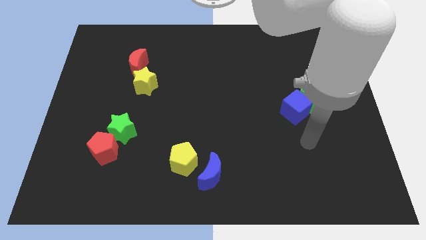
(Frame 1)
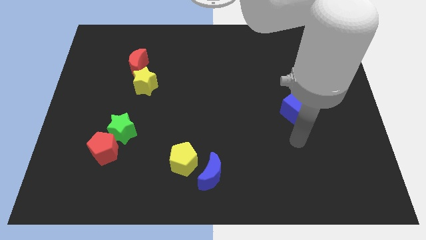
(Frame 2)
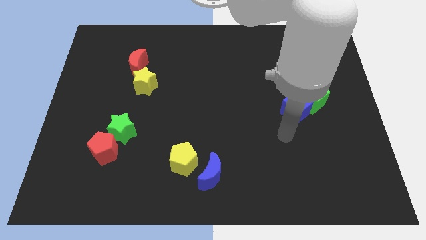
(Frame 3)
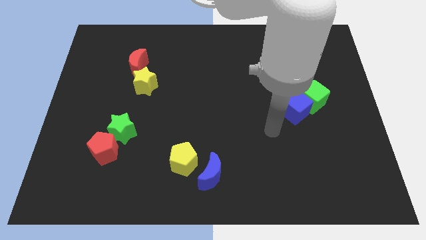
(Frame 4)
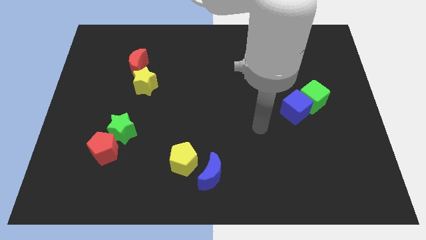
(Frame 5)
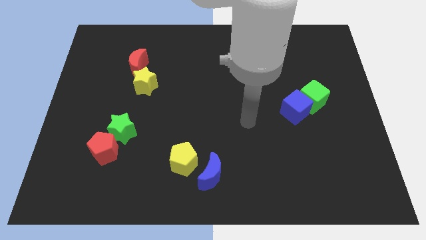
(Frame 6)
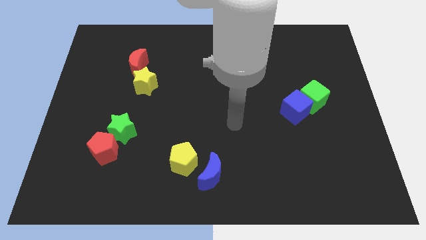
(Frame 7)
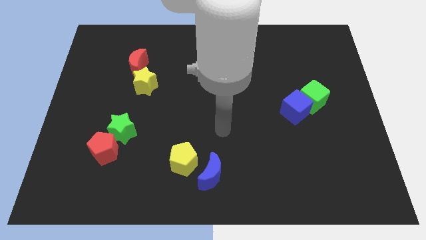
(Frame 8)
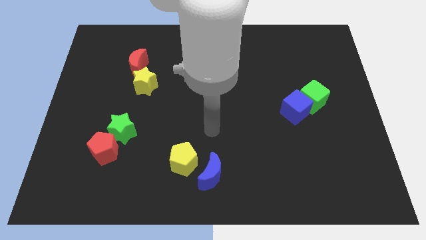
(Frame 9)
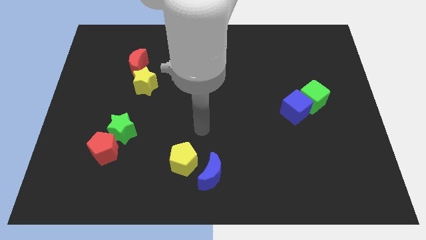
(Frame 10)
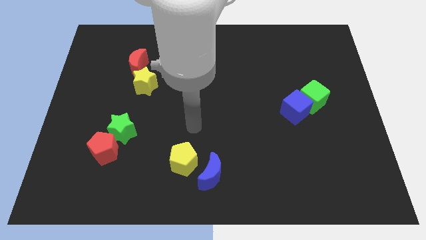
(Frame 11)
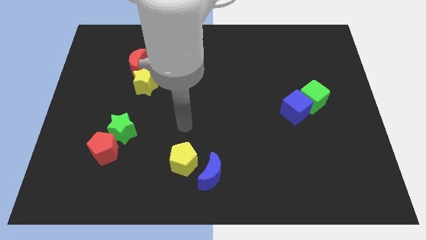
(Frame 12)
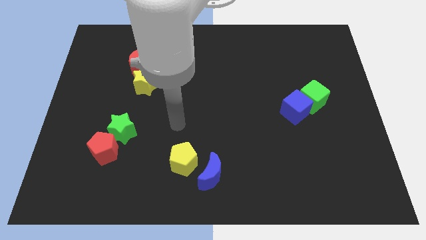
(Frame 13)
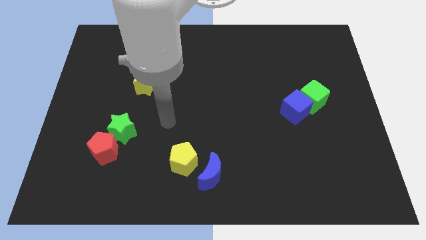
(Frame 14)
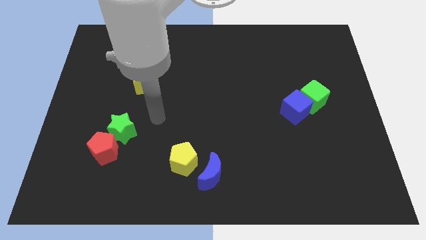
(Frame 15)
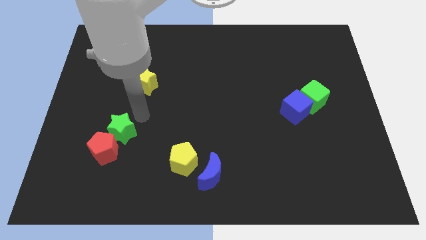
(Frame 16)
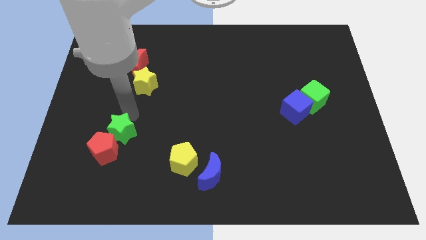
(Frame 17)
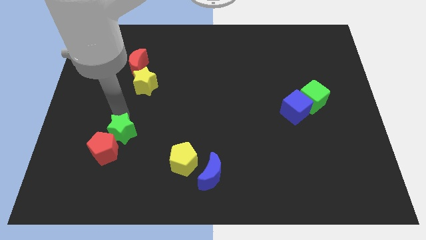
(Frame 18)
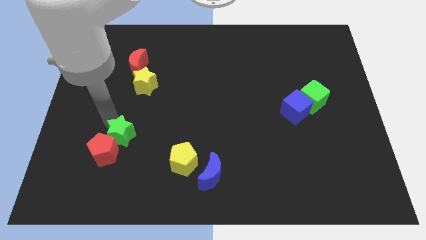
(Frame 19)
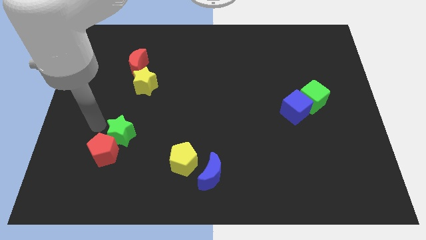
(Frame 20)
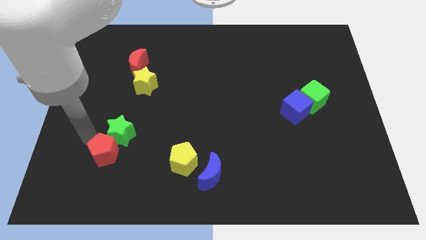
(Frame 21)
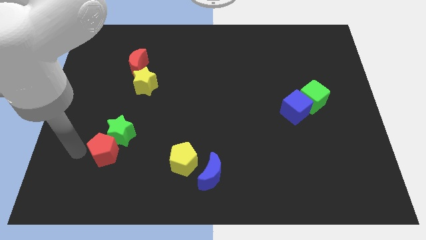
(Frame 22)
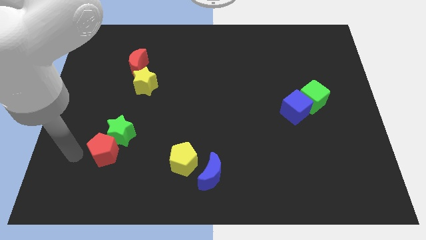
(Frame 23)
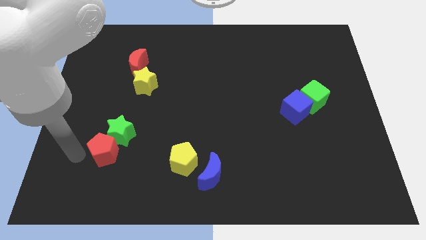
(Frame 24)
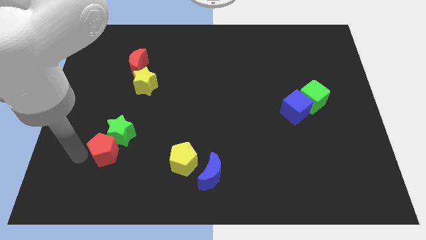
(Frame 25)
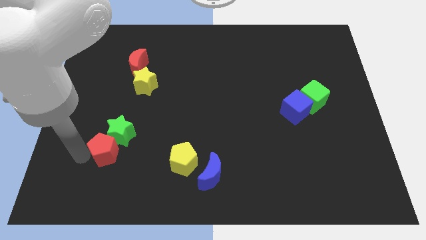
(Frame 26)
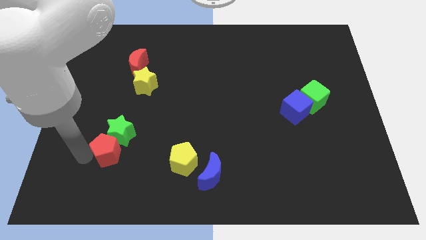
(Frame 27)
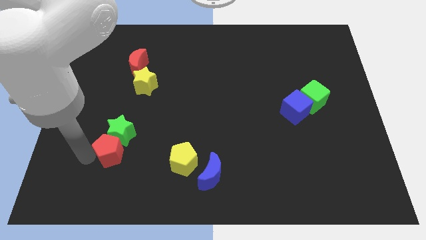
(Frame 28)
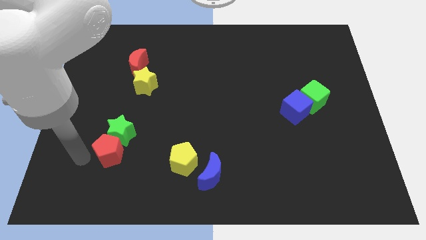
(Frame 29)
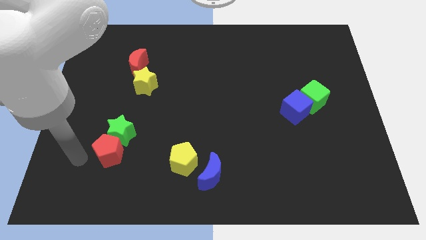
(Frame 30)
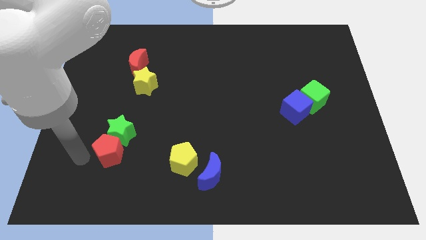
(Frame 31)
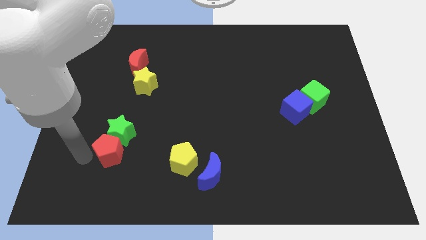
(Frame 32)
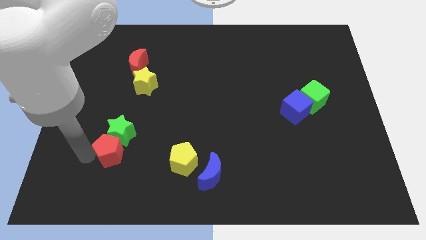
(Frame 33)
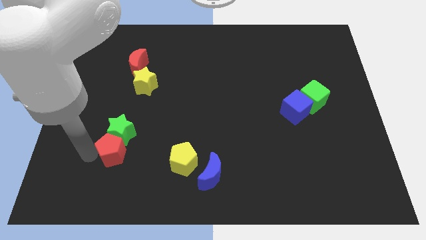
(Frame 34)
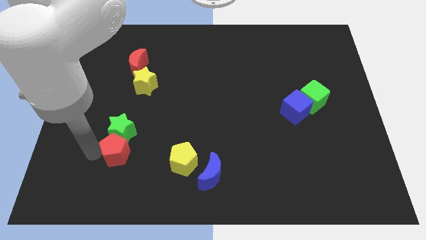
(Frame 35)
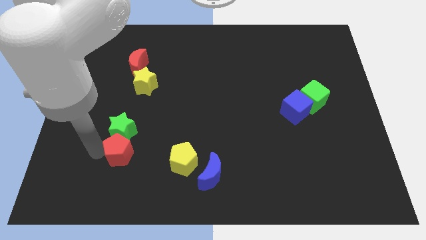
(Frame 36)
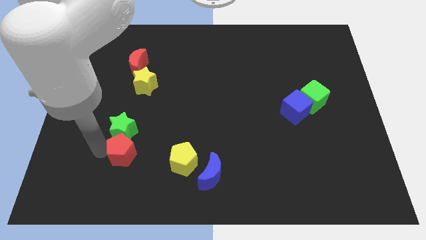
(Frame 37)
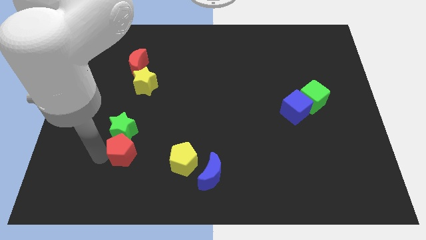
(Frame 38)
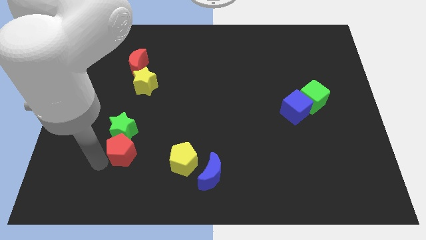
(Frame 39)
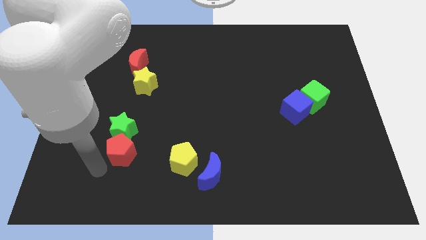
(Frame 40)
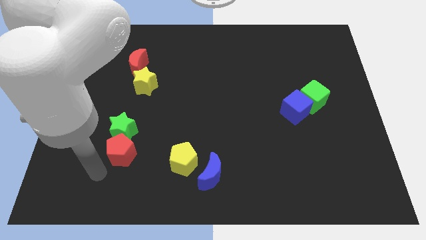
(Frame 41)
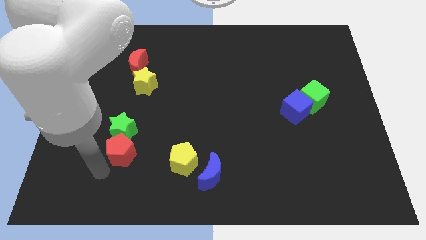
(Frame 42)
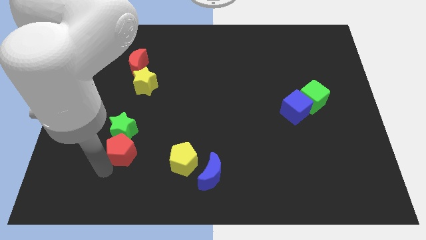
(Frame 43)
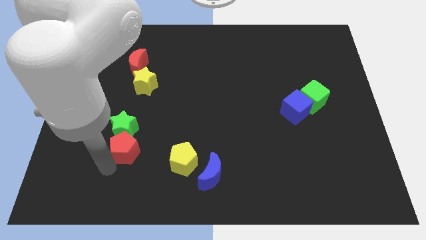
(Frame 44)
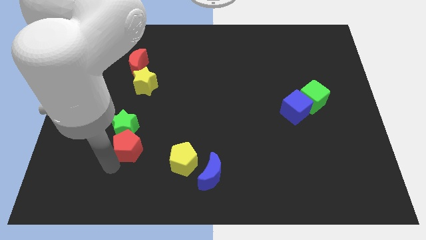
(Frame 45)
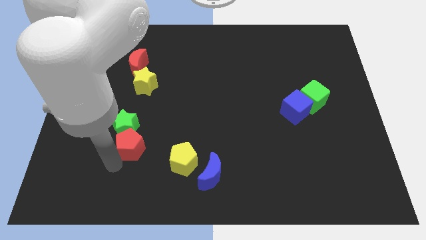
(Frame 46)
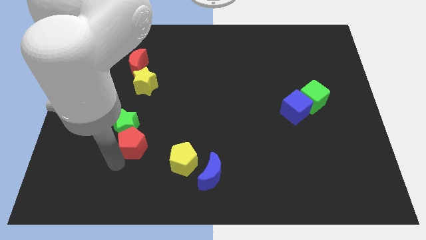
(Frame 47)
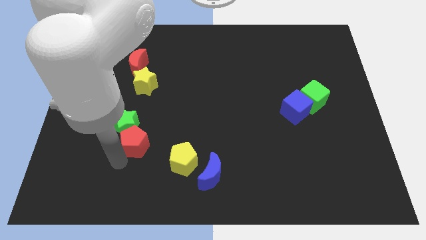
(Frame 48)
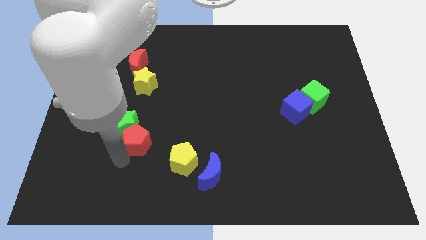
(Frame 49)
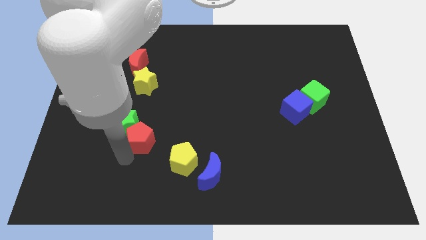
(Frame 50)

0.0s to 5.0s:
slightly slide the red pentagon up and right diagonally

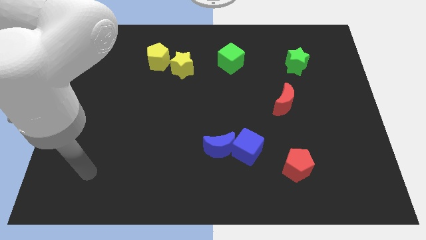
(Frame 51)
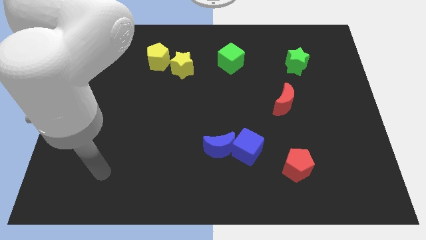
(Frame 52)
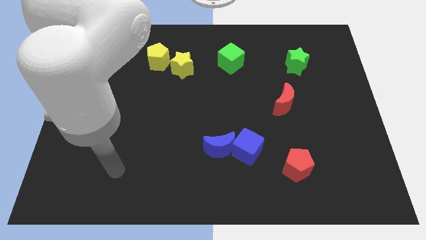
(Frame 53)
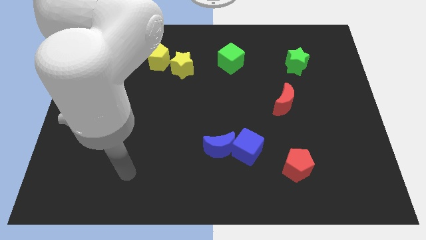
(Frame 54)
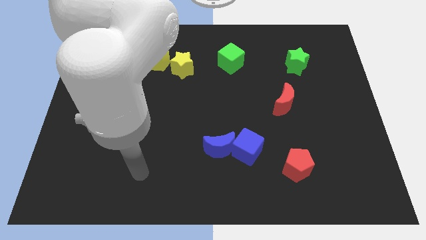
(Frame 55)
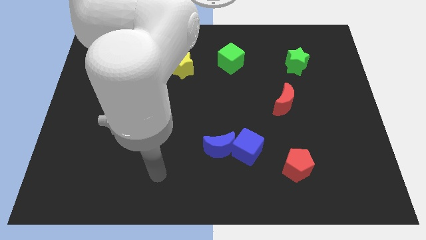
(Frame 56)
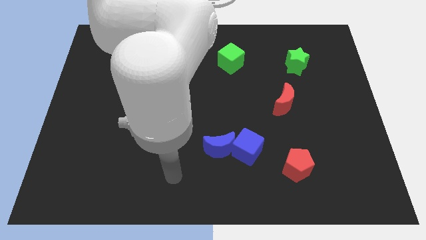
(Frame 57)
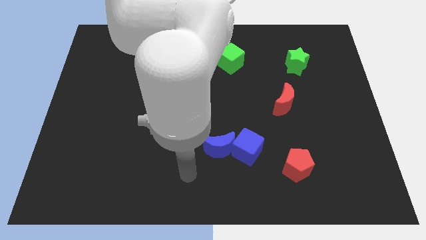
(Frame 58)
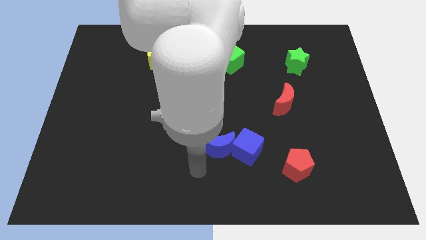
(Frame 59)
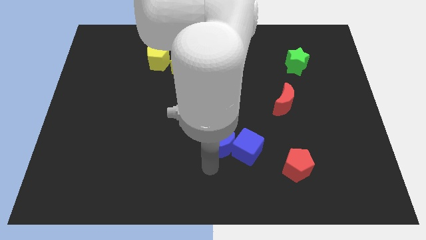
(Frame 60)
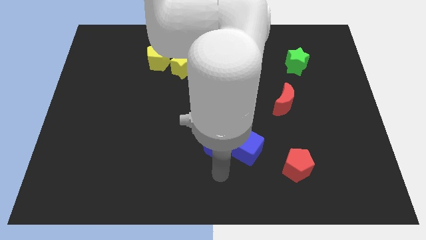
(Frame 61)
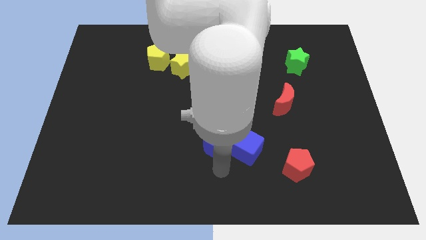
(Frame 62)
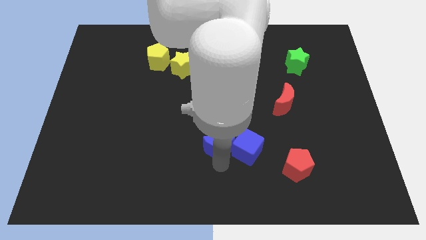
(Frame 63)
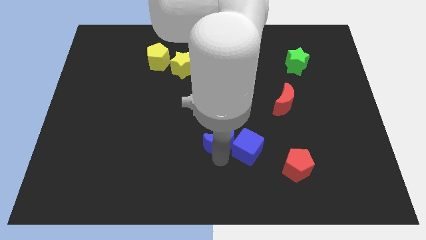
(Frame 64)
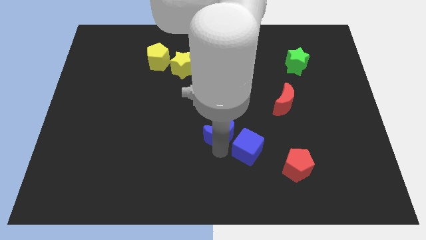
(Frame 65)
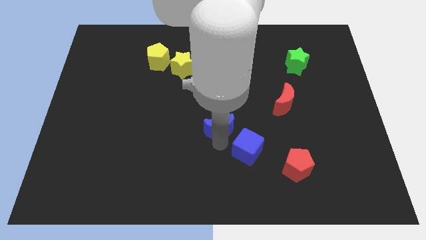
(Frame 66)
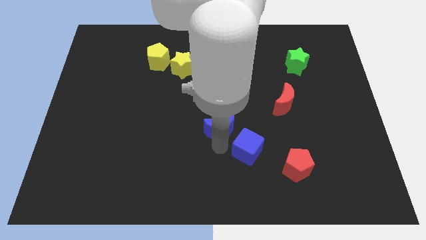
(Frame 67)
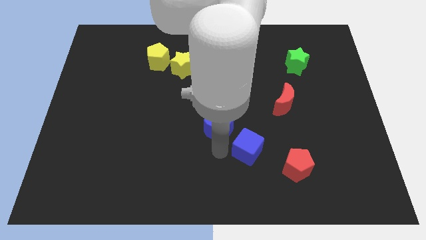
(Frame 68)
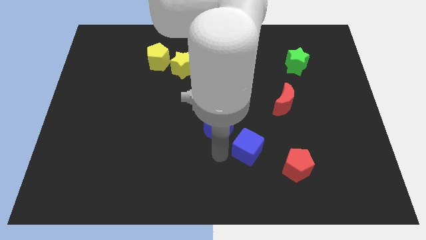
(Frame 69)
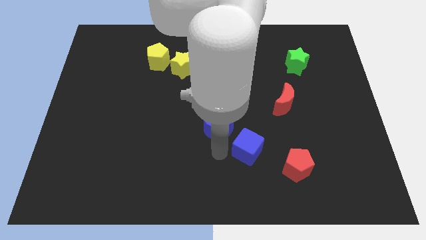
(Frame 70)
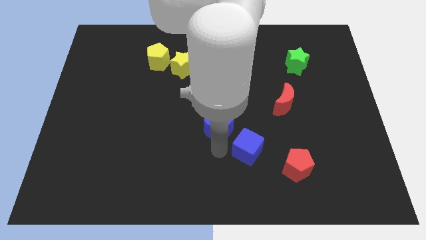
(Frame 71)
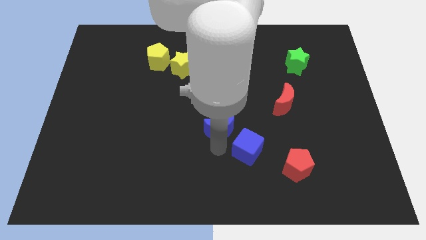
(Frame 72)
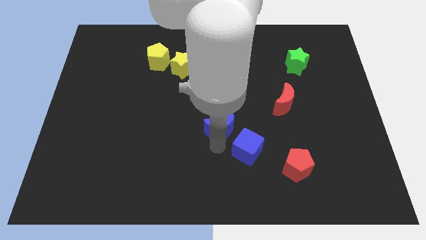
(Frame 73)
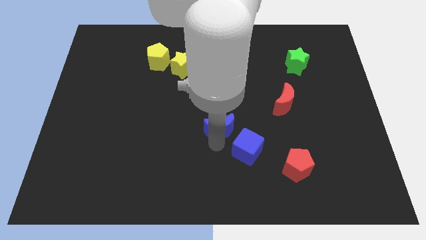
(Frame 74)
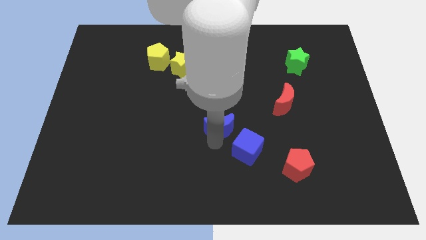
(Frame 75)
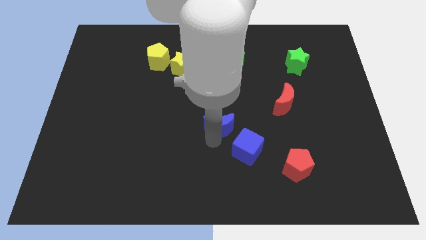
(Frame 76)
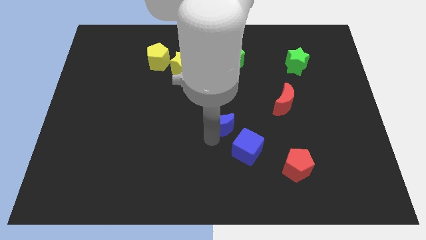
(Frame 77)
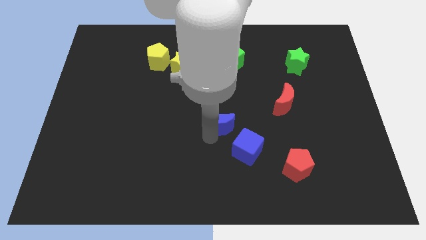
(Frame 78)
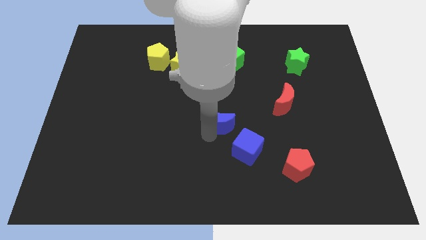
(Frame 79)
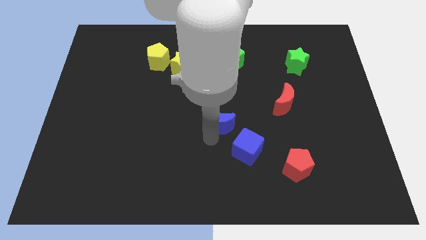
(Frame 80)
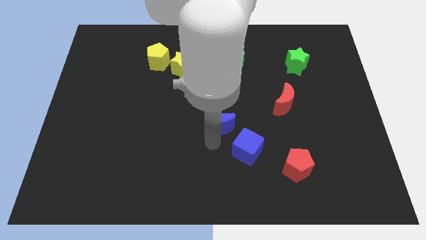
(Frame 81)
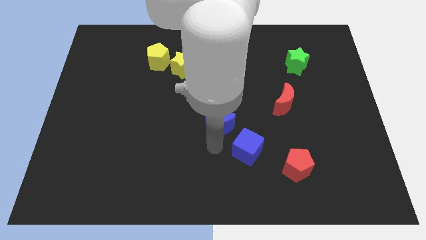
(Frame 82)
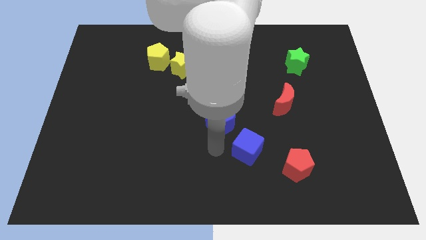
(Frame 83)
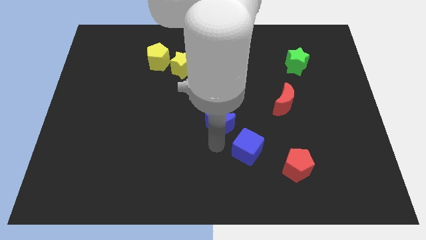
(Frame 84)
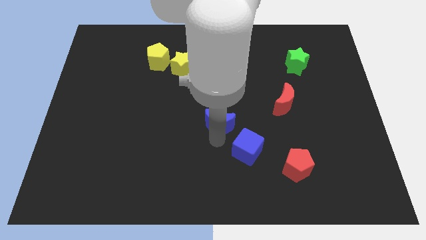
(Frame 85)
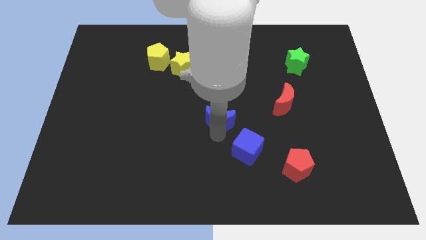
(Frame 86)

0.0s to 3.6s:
slide the blue moon upwards a little
